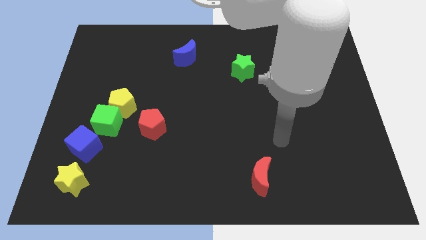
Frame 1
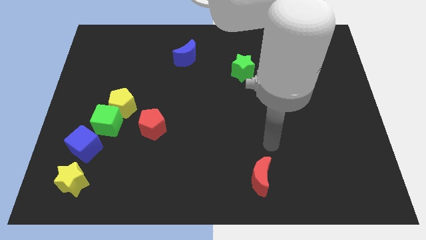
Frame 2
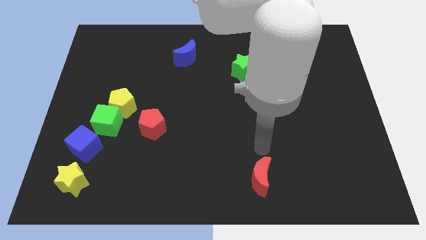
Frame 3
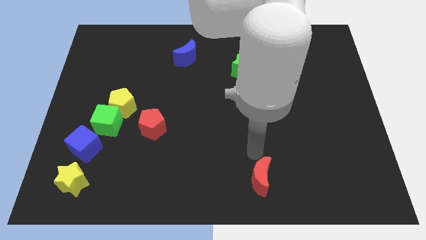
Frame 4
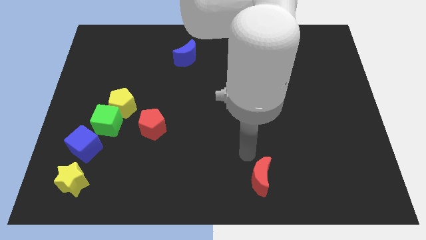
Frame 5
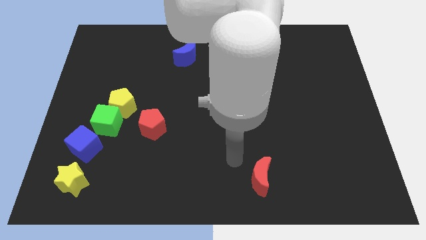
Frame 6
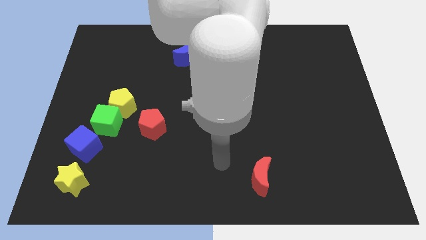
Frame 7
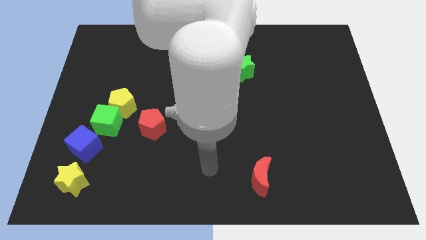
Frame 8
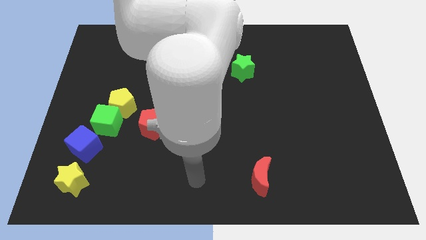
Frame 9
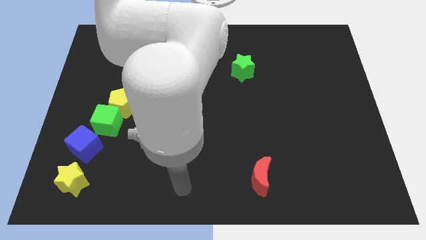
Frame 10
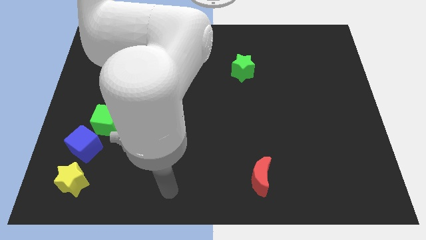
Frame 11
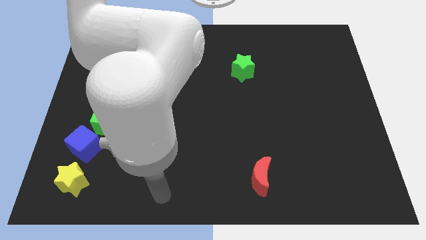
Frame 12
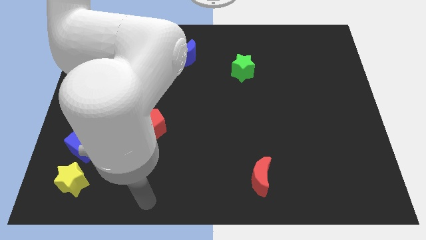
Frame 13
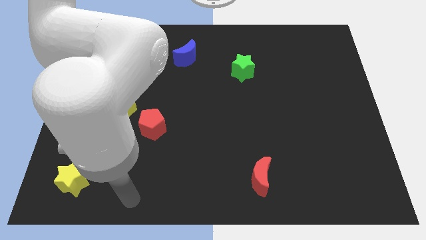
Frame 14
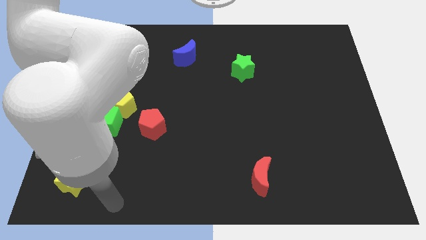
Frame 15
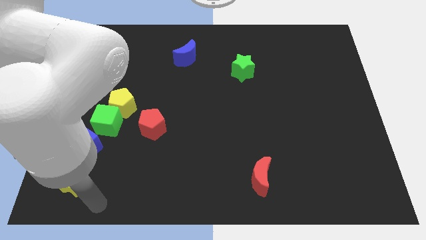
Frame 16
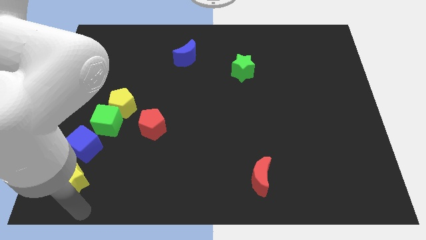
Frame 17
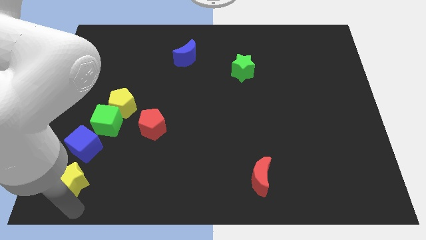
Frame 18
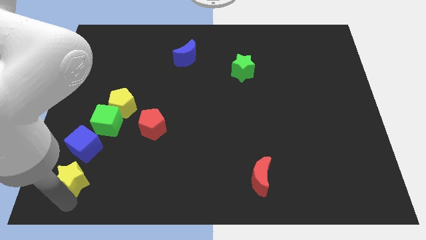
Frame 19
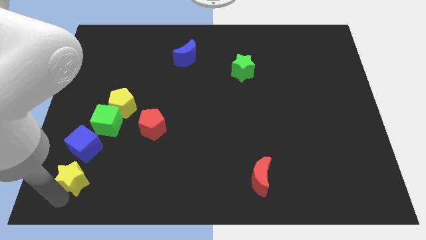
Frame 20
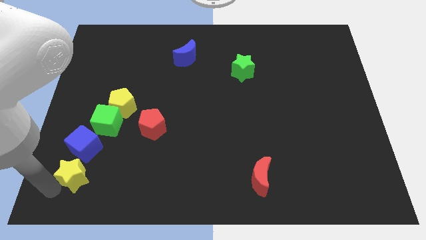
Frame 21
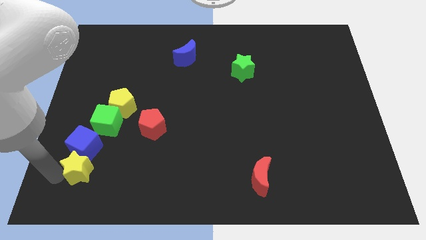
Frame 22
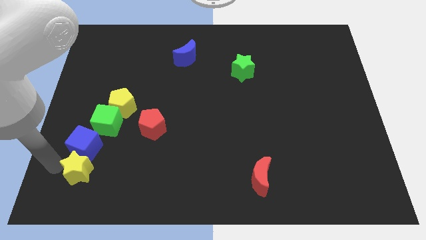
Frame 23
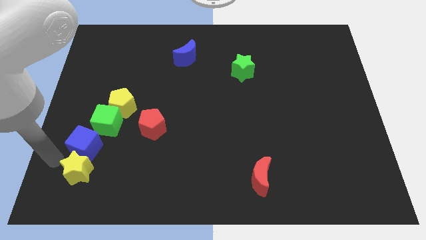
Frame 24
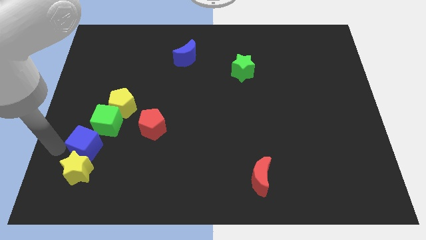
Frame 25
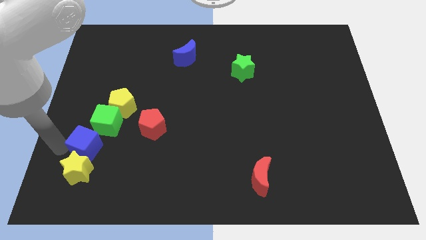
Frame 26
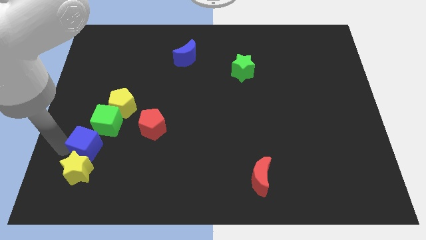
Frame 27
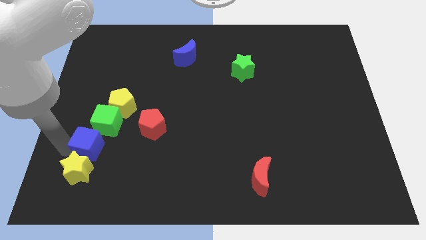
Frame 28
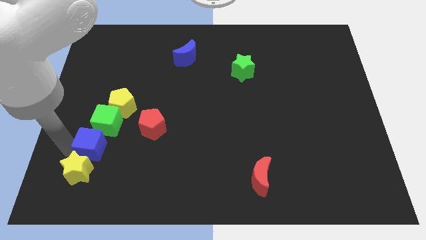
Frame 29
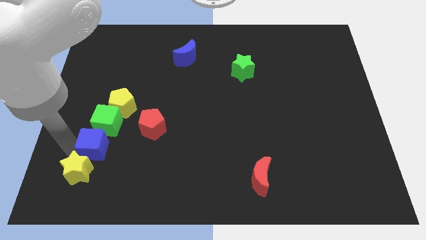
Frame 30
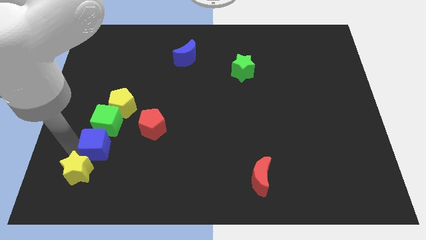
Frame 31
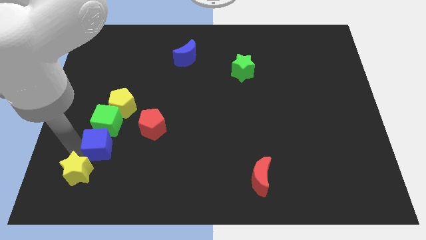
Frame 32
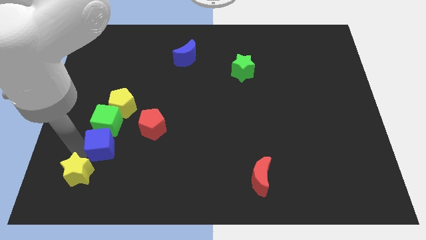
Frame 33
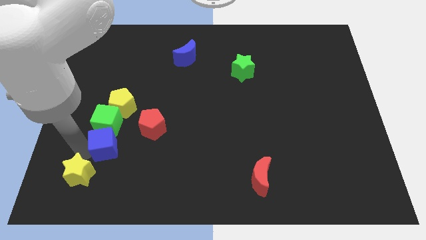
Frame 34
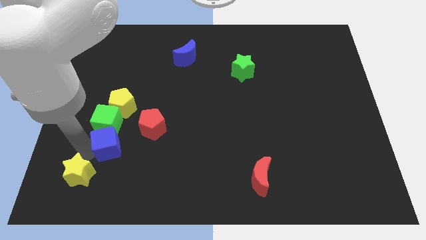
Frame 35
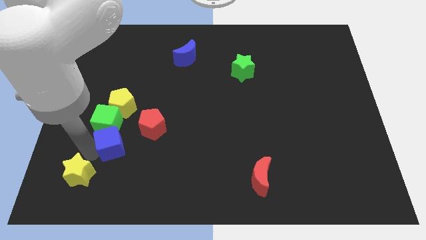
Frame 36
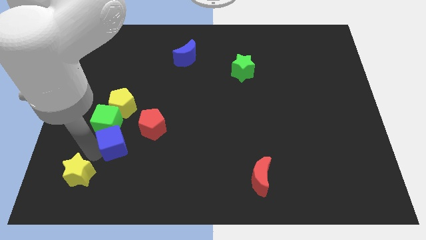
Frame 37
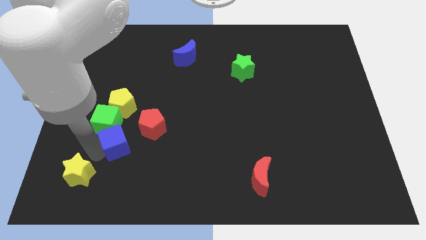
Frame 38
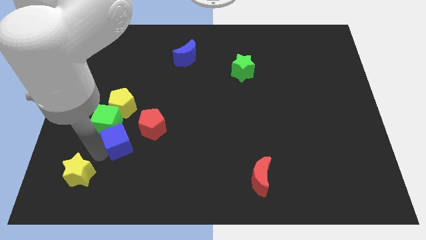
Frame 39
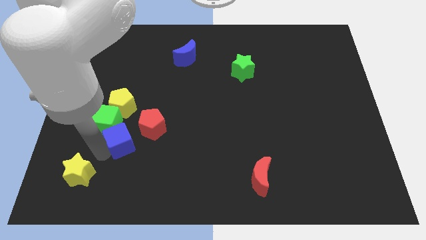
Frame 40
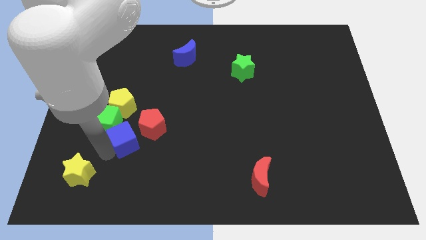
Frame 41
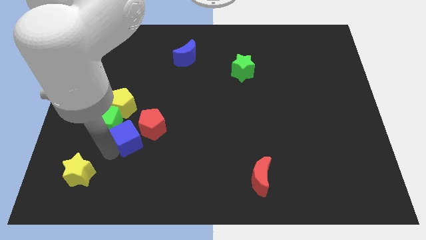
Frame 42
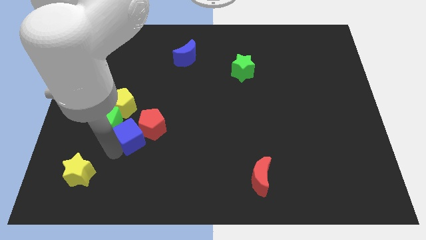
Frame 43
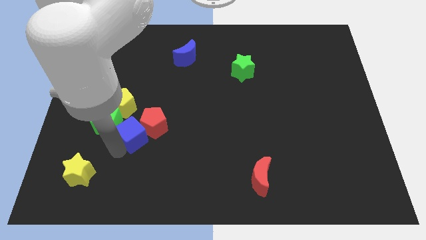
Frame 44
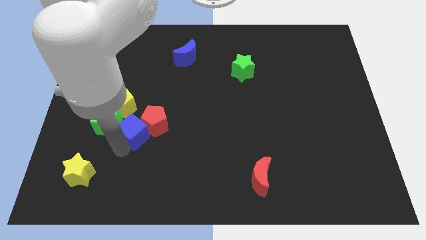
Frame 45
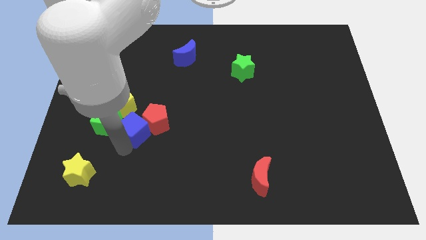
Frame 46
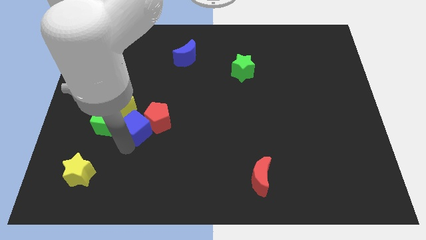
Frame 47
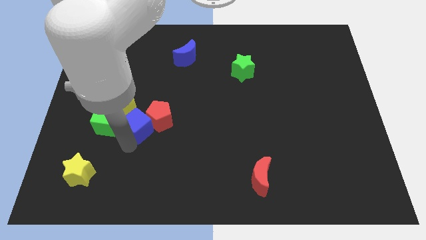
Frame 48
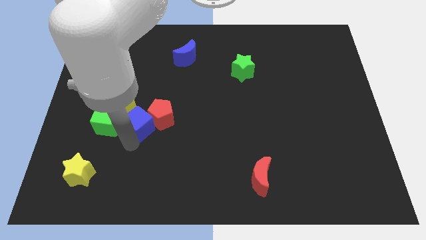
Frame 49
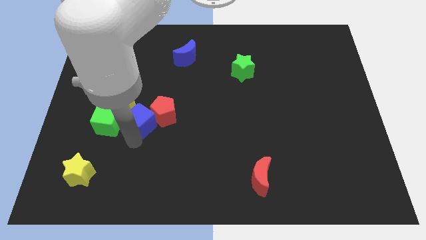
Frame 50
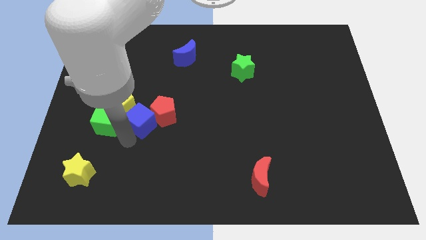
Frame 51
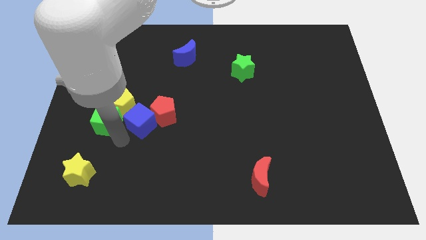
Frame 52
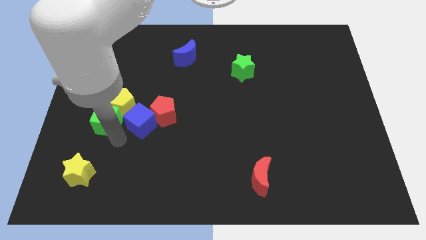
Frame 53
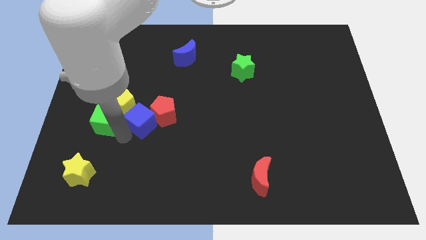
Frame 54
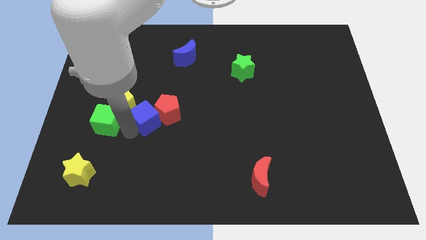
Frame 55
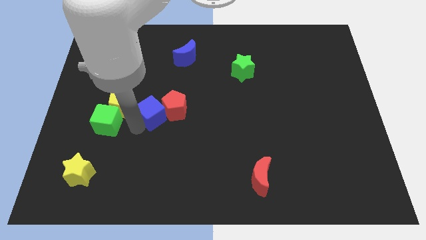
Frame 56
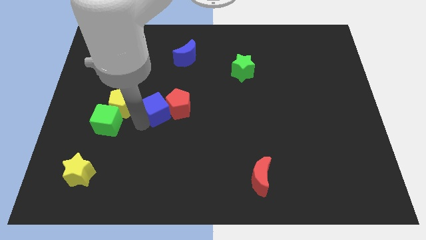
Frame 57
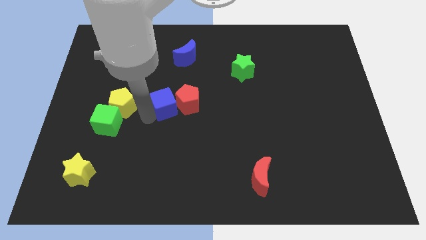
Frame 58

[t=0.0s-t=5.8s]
put the blue cube to the center of the board
